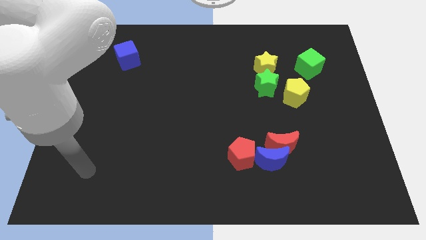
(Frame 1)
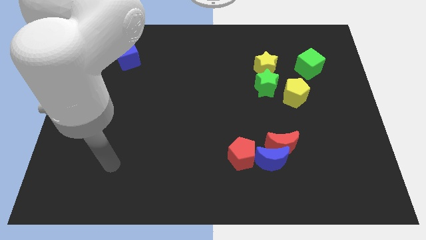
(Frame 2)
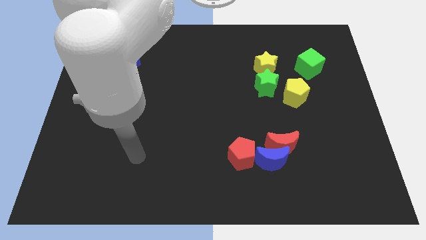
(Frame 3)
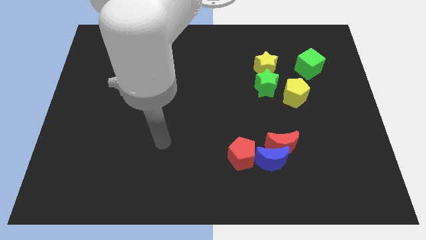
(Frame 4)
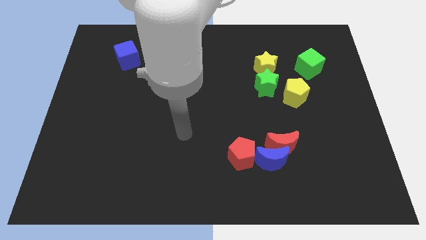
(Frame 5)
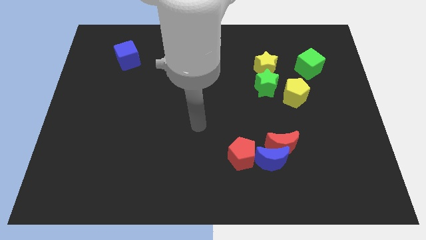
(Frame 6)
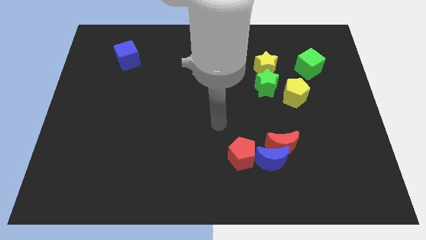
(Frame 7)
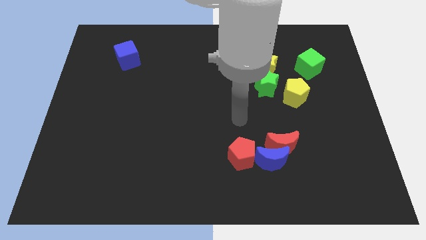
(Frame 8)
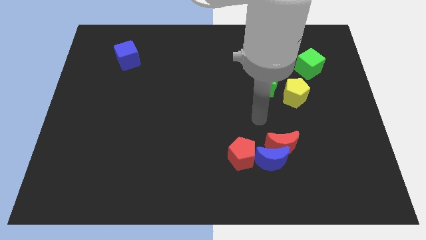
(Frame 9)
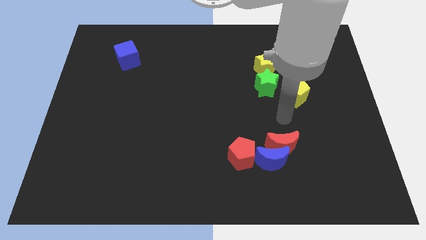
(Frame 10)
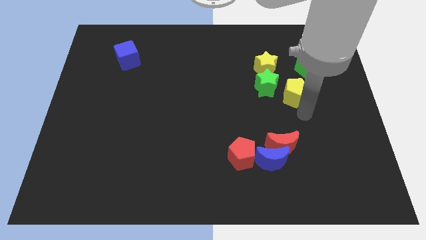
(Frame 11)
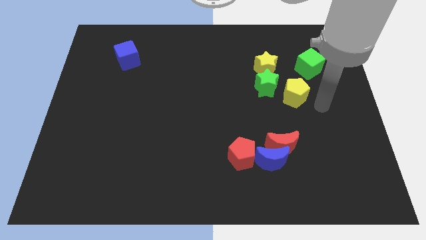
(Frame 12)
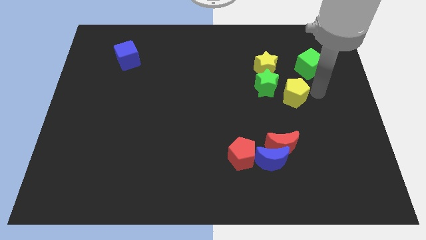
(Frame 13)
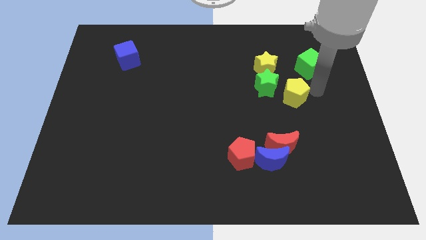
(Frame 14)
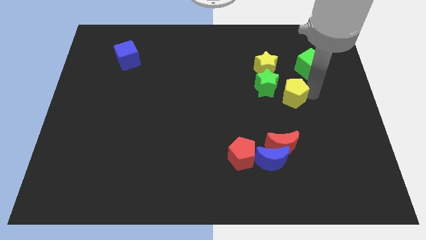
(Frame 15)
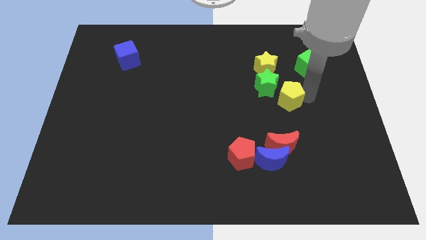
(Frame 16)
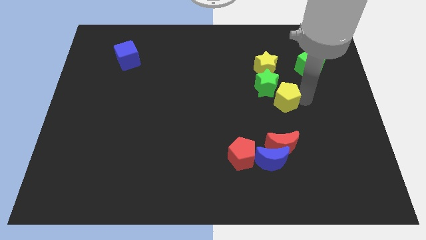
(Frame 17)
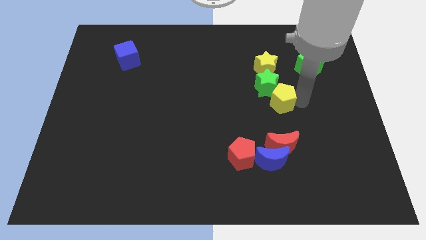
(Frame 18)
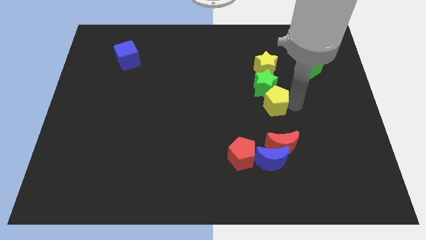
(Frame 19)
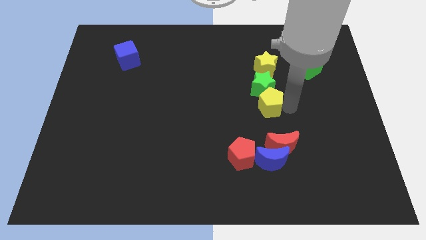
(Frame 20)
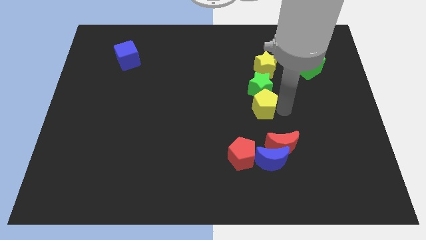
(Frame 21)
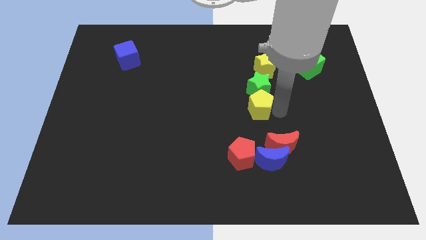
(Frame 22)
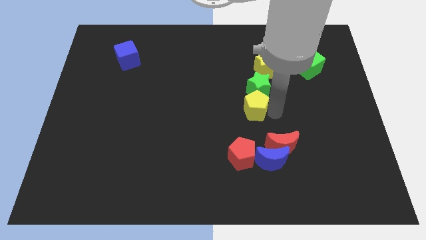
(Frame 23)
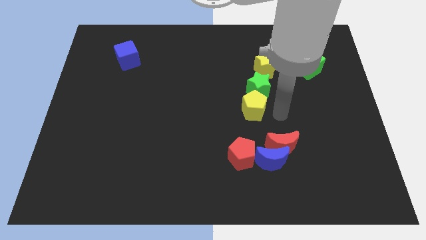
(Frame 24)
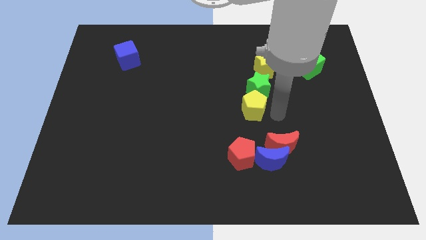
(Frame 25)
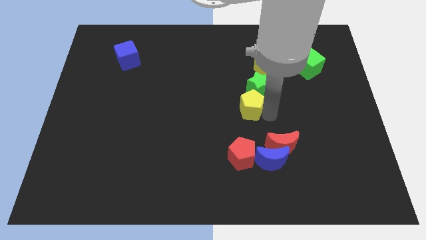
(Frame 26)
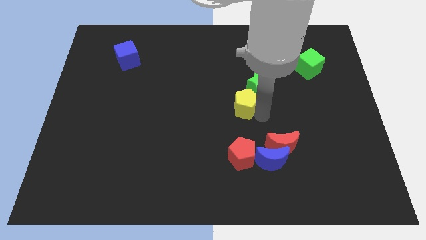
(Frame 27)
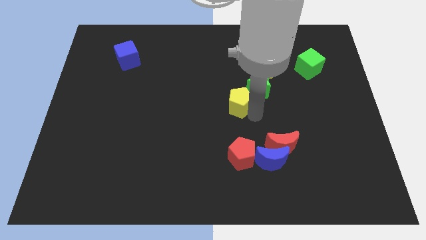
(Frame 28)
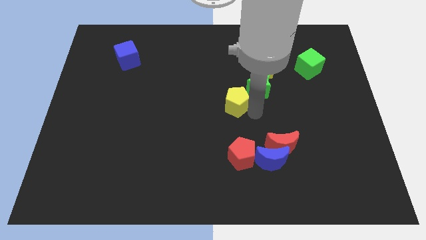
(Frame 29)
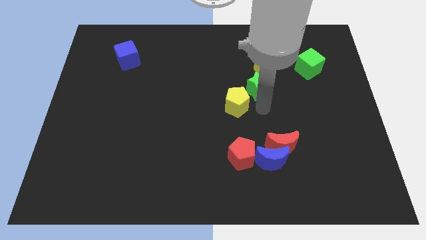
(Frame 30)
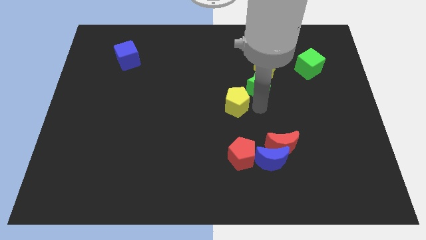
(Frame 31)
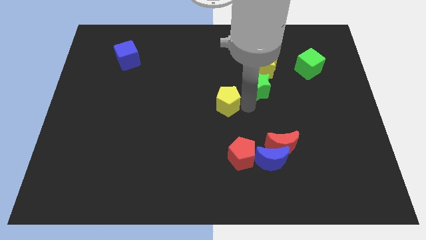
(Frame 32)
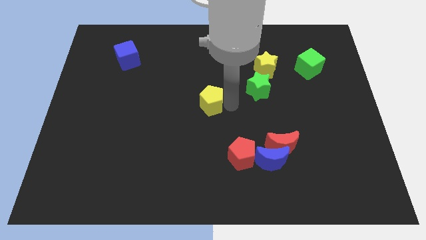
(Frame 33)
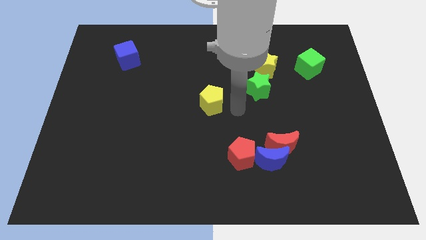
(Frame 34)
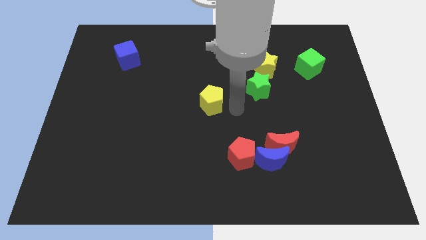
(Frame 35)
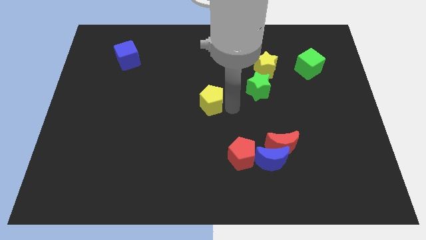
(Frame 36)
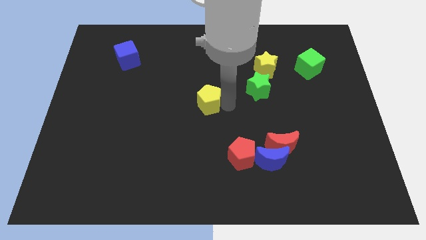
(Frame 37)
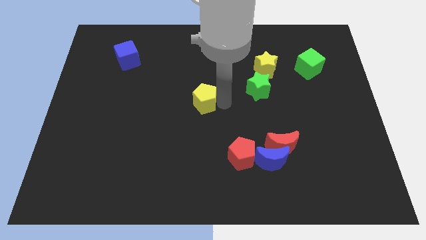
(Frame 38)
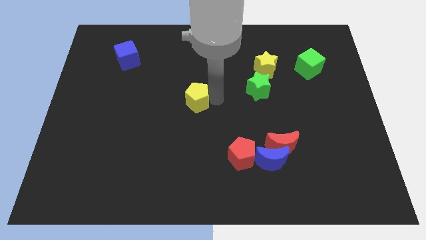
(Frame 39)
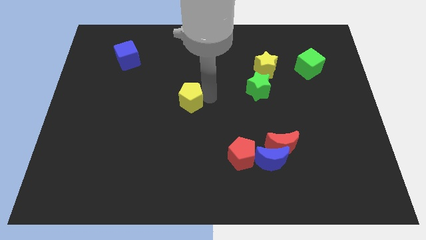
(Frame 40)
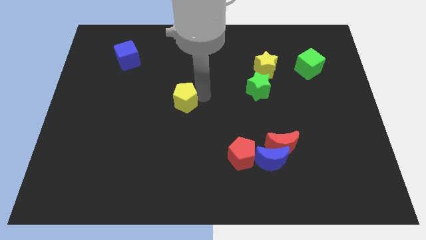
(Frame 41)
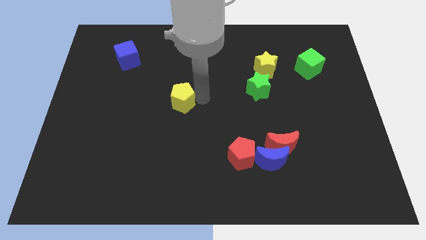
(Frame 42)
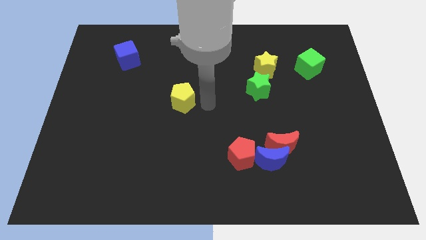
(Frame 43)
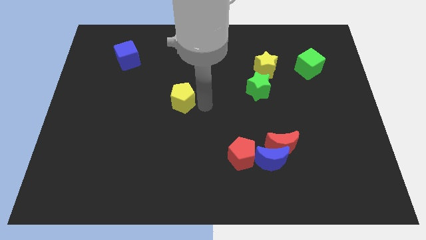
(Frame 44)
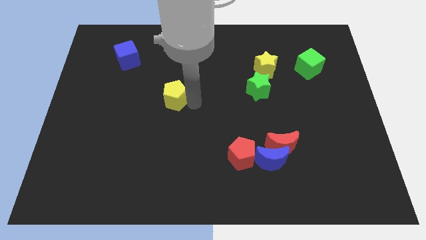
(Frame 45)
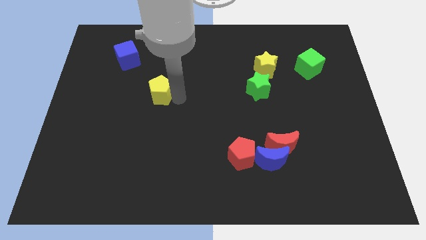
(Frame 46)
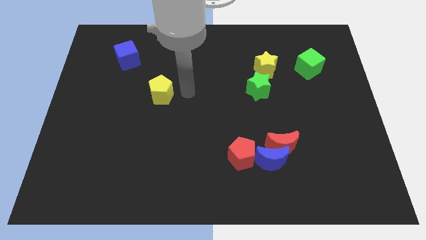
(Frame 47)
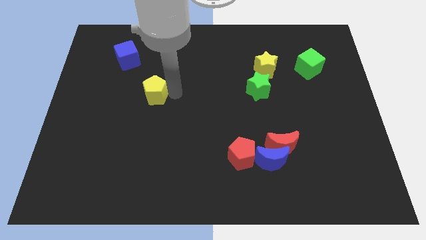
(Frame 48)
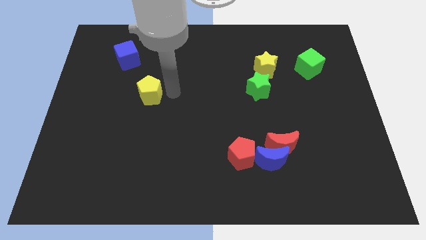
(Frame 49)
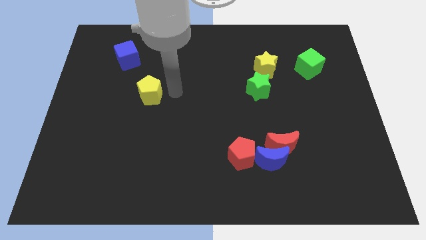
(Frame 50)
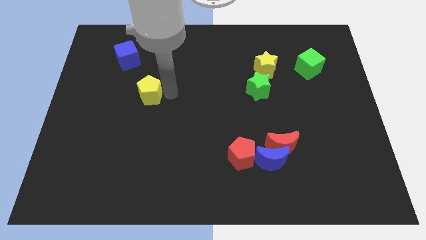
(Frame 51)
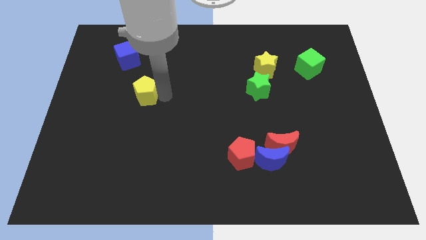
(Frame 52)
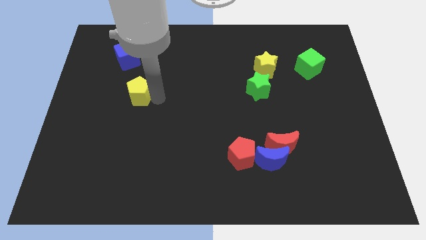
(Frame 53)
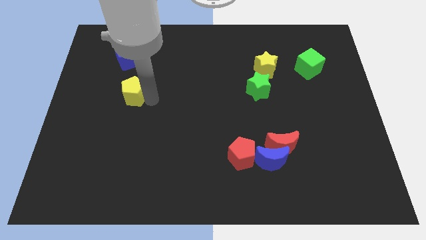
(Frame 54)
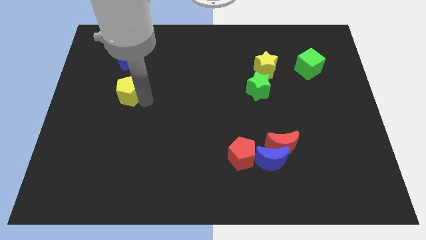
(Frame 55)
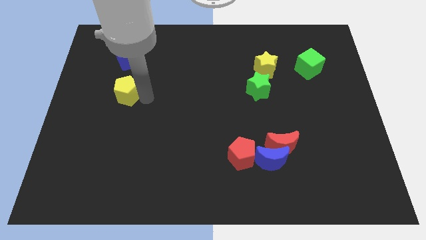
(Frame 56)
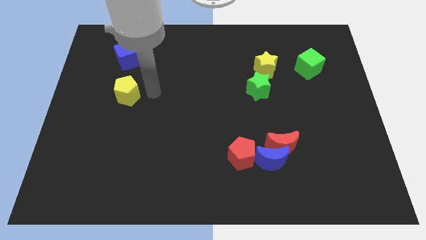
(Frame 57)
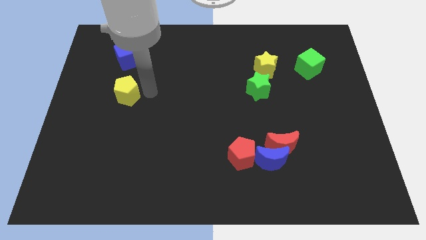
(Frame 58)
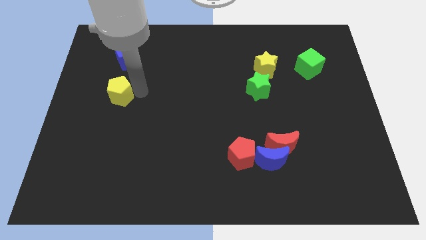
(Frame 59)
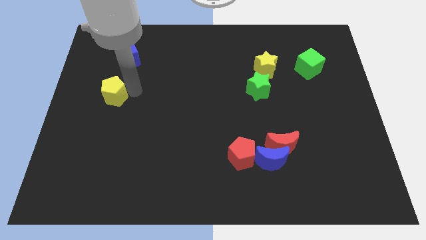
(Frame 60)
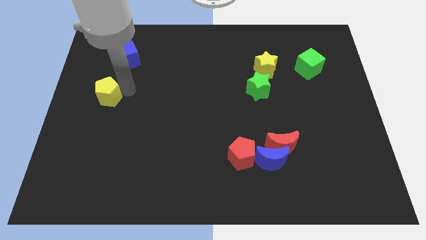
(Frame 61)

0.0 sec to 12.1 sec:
put the yellow pentagon to the left side of the board
